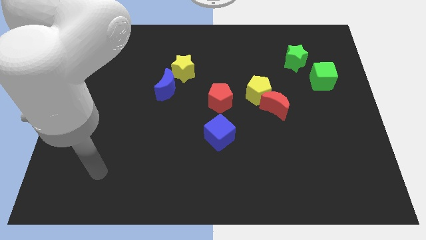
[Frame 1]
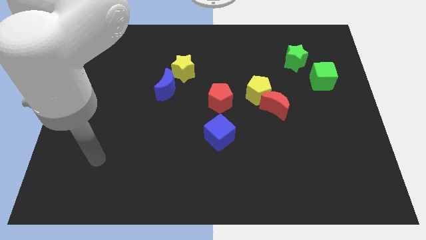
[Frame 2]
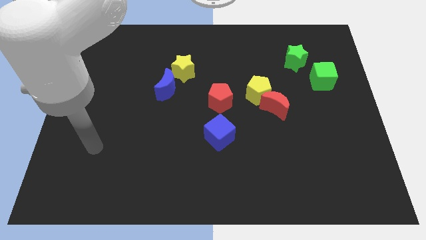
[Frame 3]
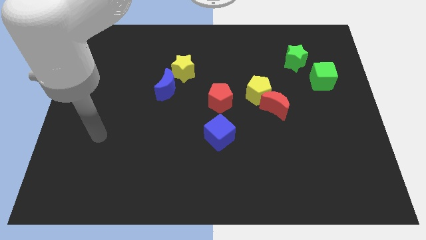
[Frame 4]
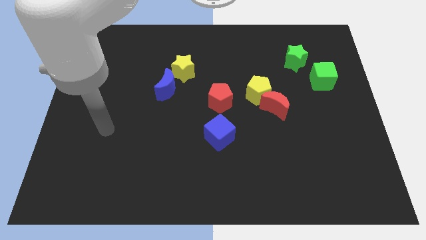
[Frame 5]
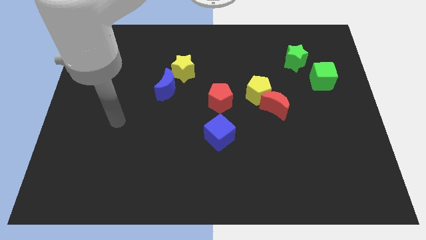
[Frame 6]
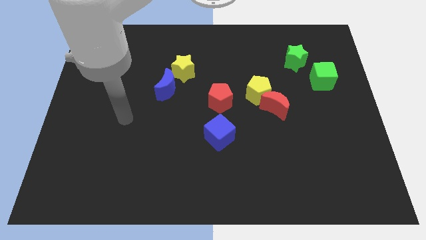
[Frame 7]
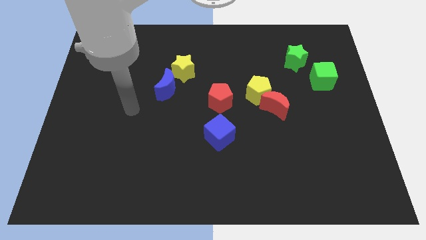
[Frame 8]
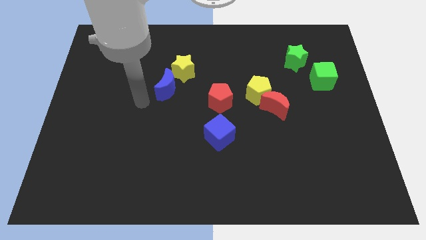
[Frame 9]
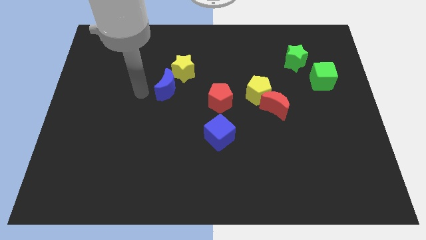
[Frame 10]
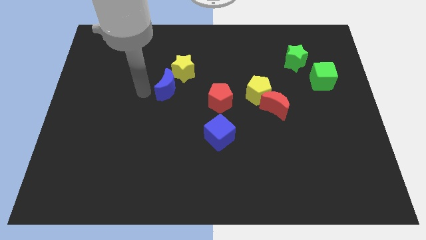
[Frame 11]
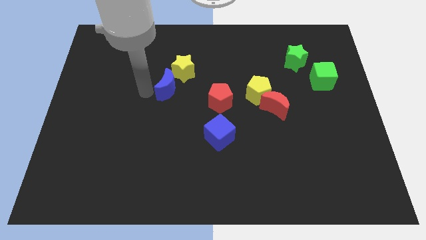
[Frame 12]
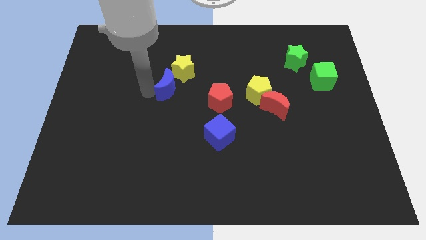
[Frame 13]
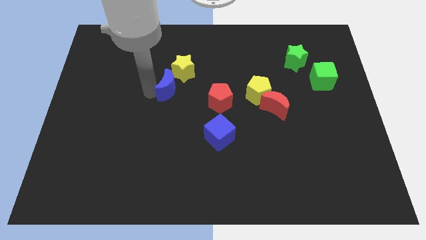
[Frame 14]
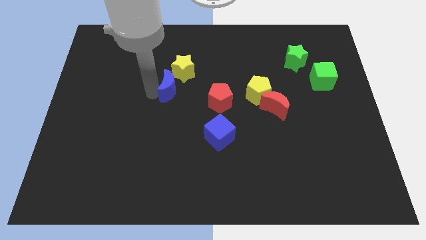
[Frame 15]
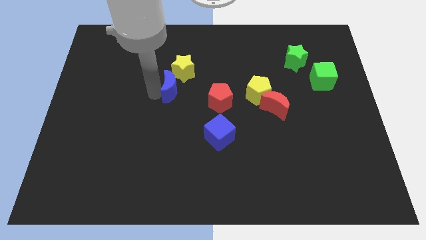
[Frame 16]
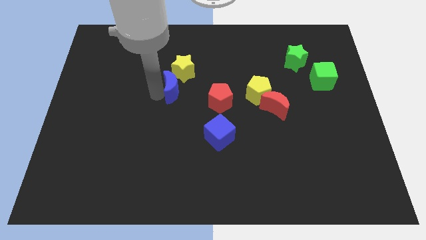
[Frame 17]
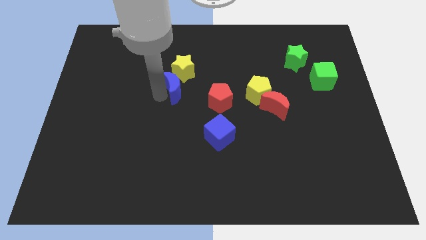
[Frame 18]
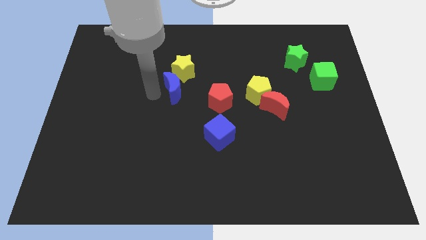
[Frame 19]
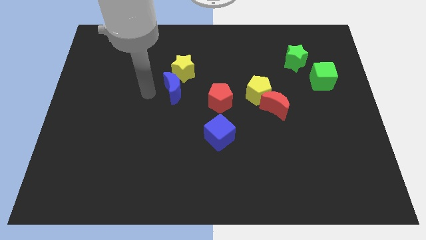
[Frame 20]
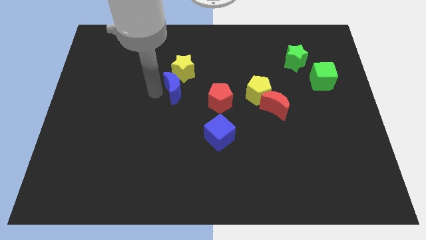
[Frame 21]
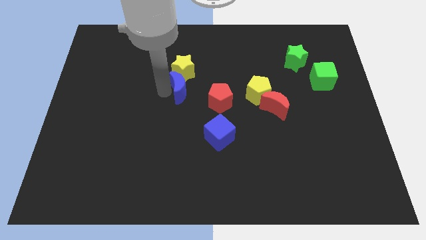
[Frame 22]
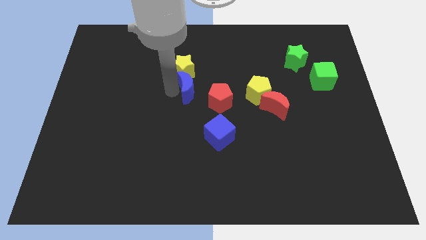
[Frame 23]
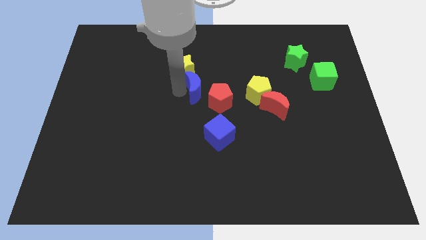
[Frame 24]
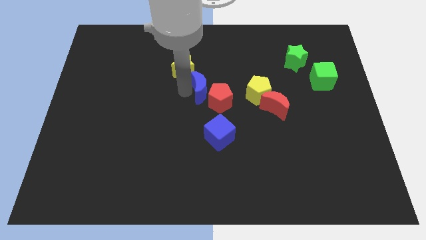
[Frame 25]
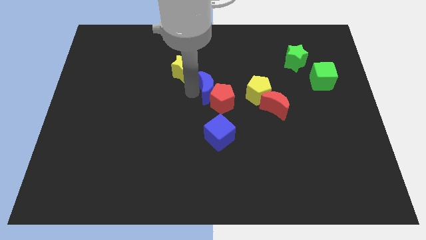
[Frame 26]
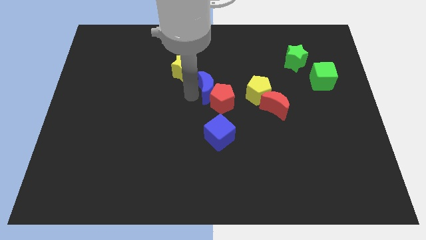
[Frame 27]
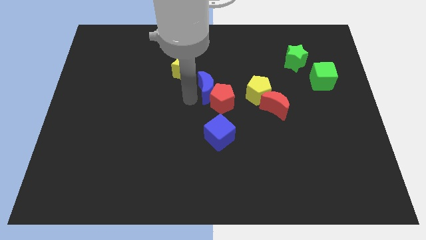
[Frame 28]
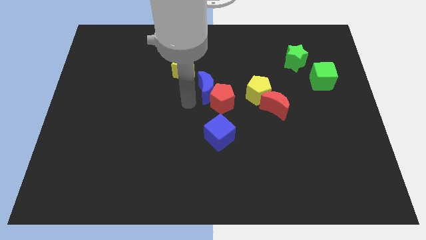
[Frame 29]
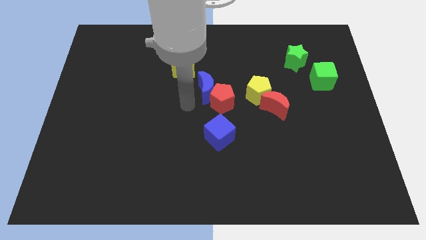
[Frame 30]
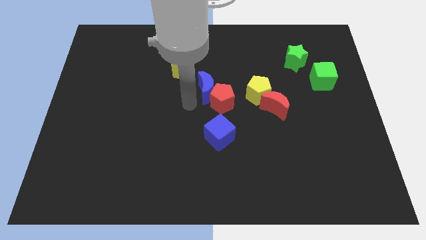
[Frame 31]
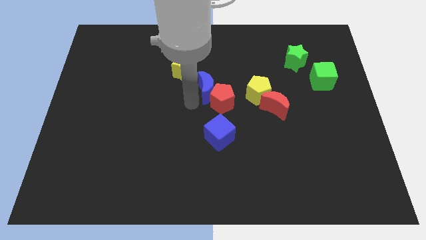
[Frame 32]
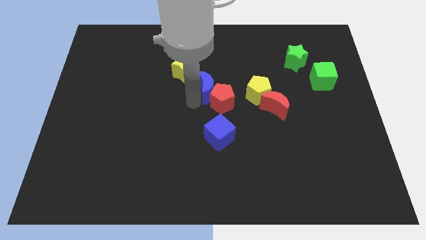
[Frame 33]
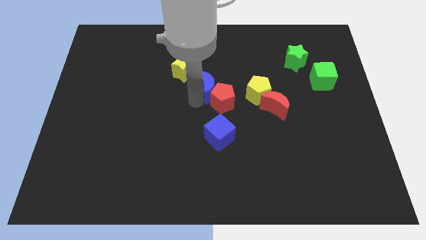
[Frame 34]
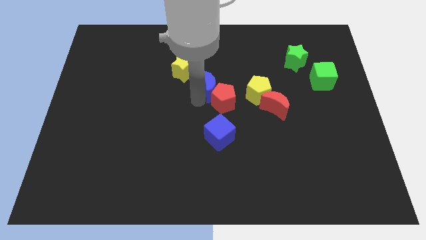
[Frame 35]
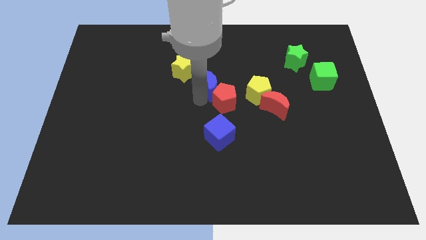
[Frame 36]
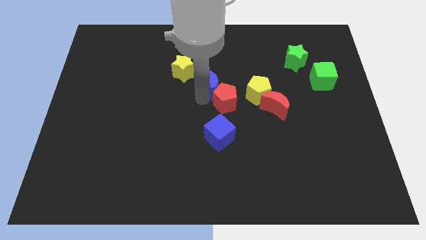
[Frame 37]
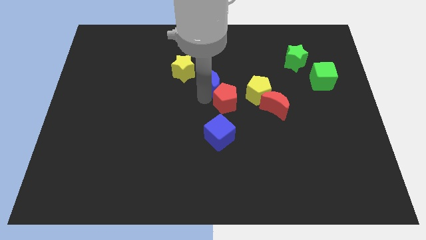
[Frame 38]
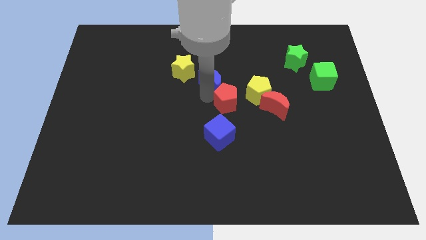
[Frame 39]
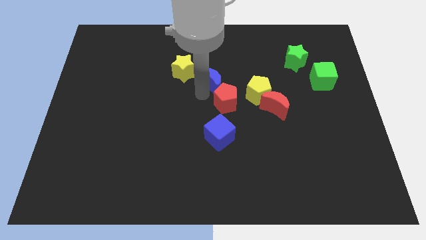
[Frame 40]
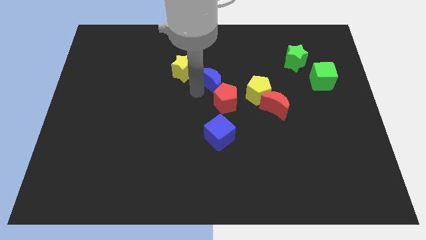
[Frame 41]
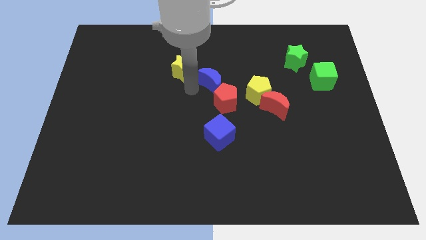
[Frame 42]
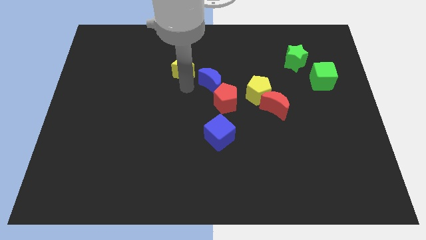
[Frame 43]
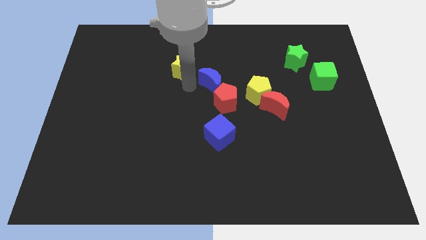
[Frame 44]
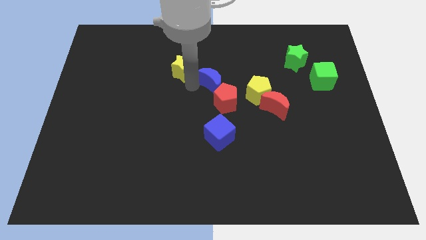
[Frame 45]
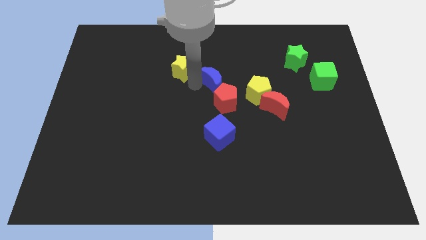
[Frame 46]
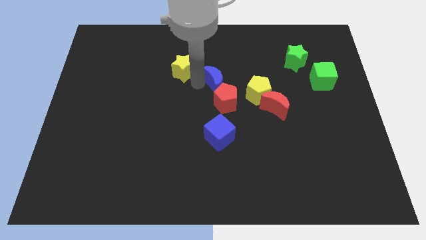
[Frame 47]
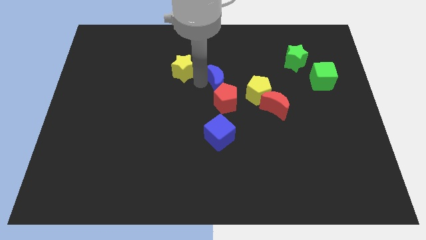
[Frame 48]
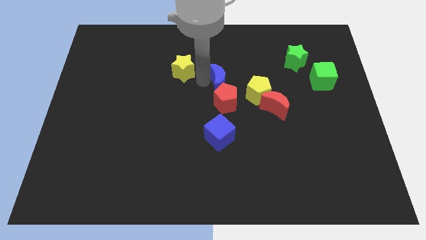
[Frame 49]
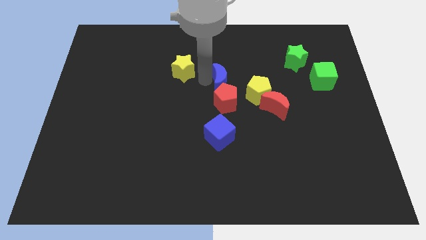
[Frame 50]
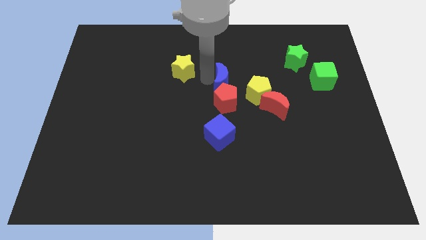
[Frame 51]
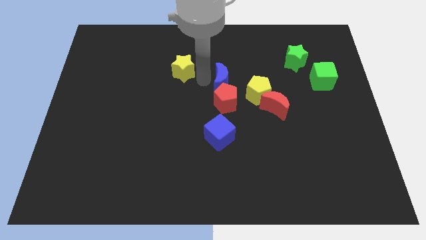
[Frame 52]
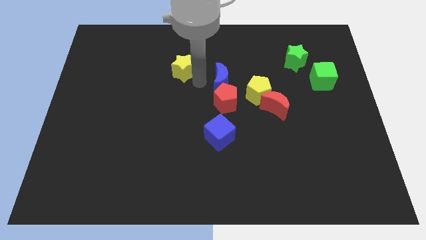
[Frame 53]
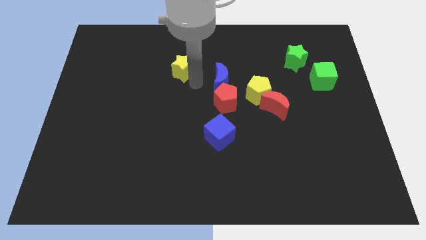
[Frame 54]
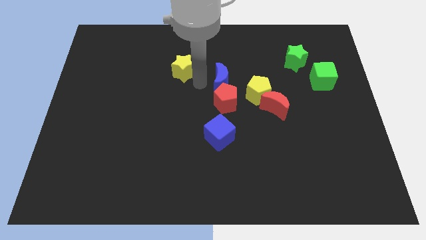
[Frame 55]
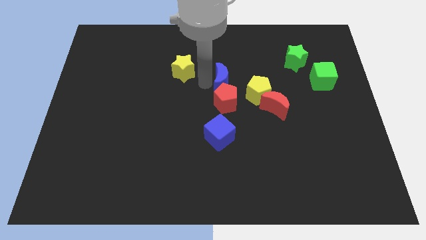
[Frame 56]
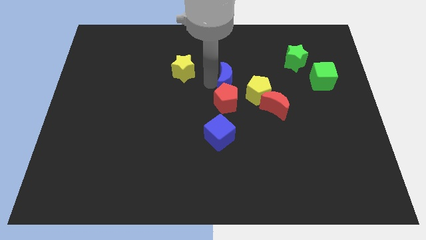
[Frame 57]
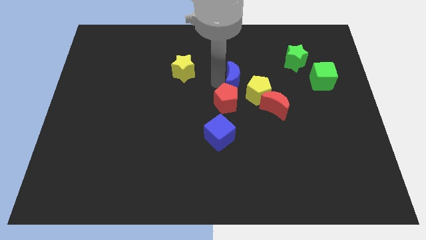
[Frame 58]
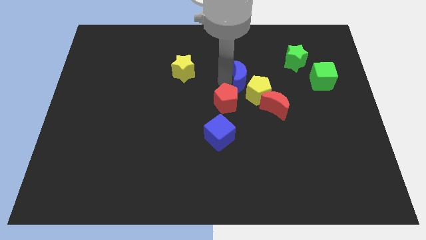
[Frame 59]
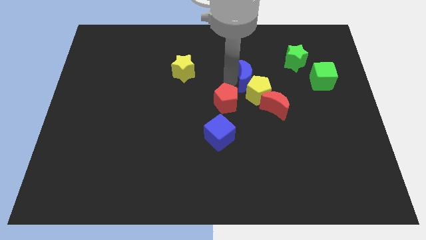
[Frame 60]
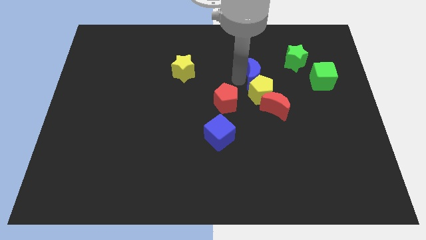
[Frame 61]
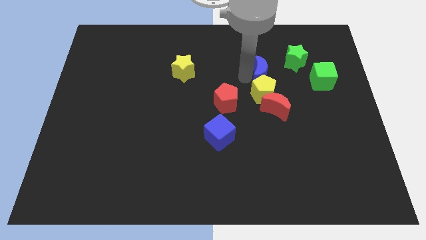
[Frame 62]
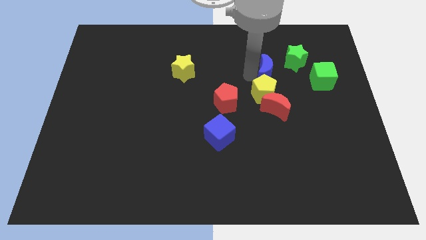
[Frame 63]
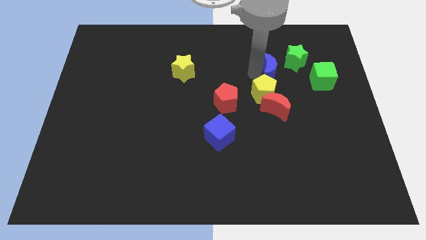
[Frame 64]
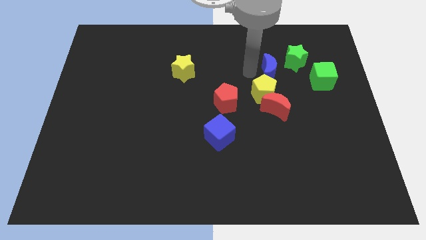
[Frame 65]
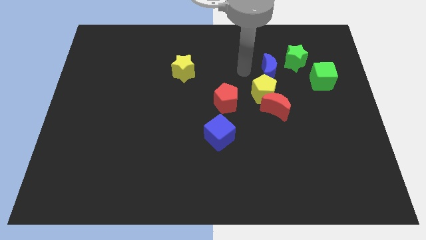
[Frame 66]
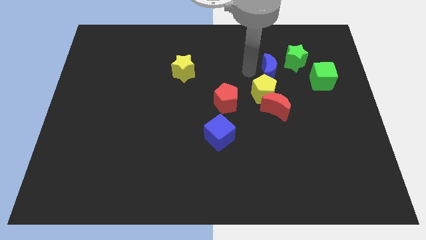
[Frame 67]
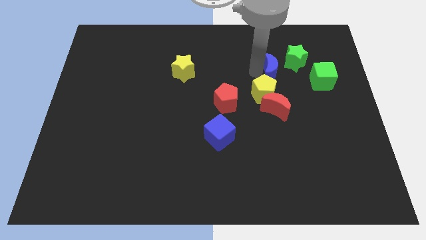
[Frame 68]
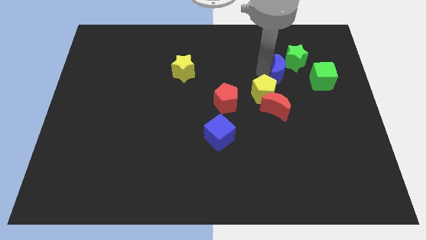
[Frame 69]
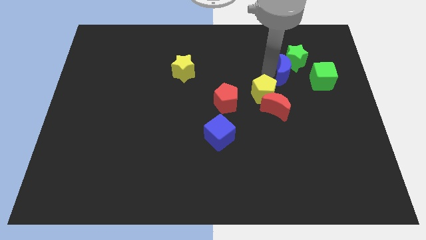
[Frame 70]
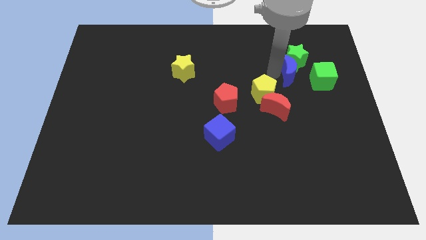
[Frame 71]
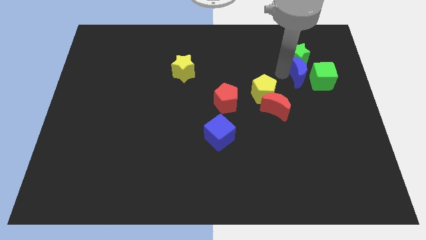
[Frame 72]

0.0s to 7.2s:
push the blue moon to the green cube
